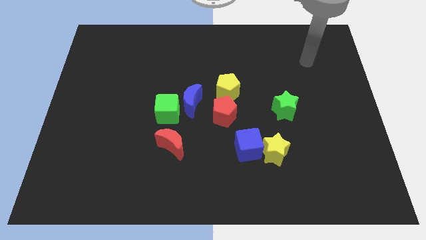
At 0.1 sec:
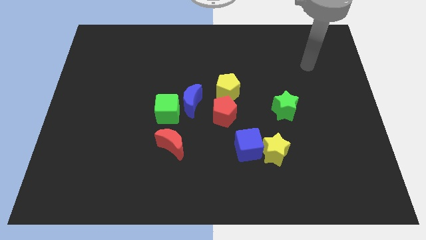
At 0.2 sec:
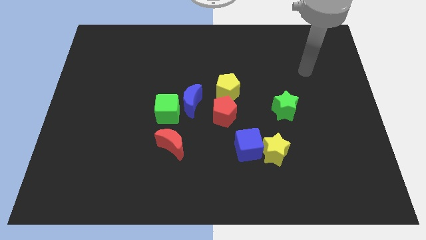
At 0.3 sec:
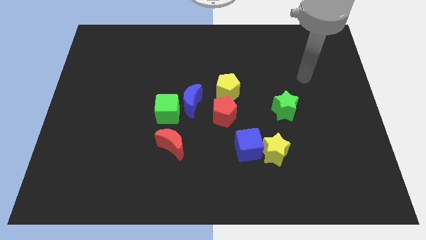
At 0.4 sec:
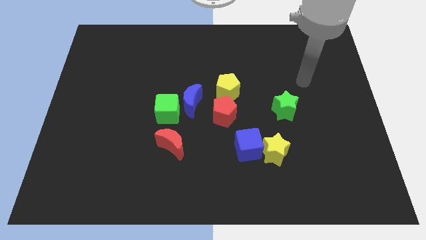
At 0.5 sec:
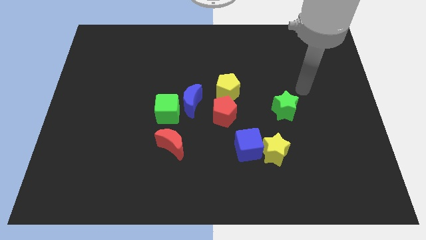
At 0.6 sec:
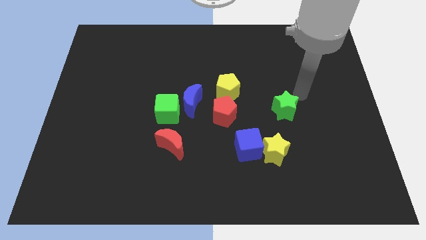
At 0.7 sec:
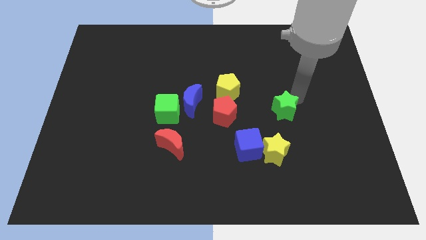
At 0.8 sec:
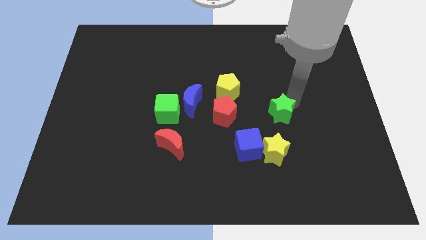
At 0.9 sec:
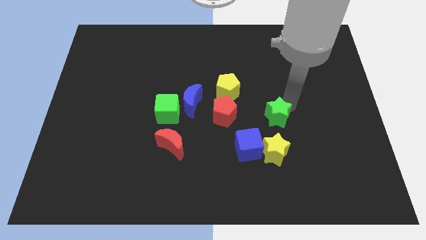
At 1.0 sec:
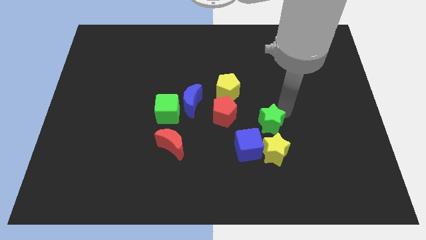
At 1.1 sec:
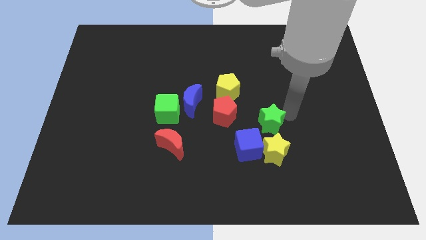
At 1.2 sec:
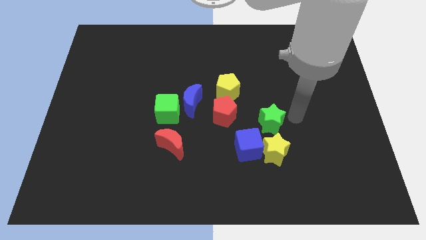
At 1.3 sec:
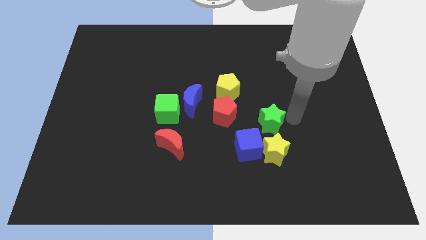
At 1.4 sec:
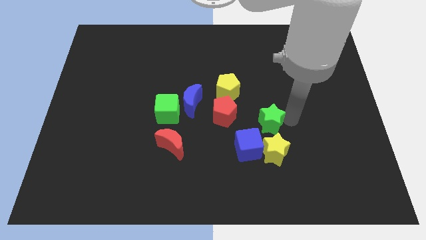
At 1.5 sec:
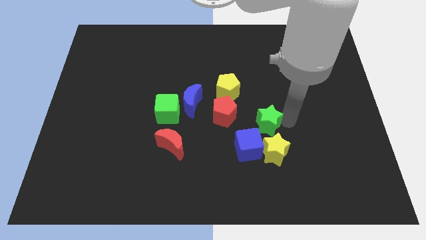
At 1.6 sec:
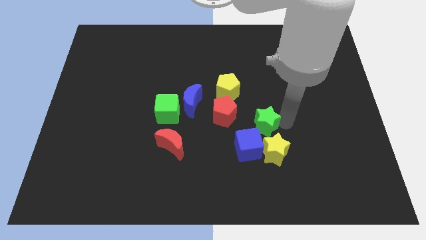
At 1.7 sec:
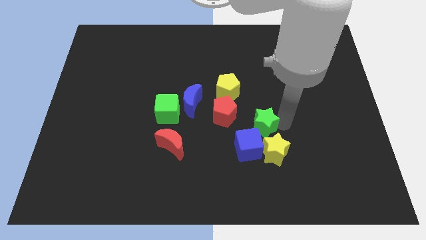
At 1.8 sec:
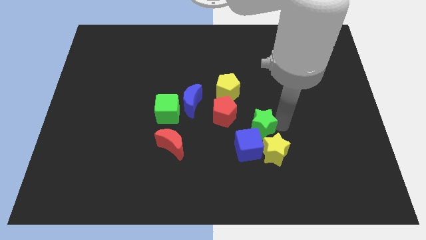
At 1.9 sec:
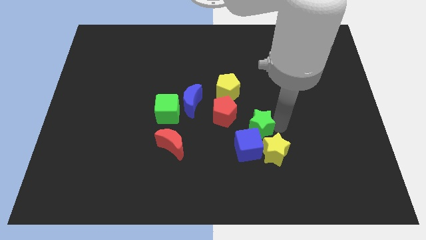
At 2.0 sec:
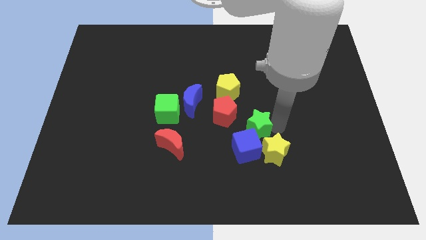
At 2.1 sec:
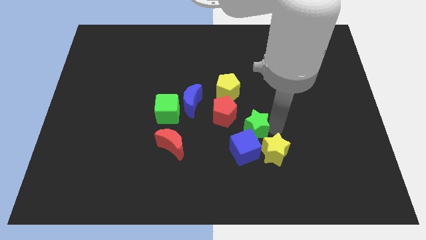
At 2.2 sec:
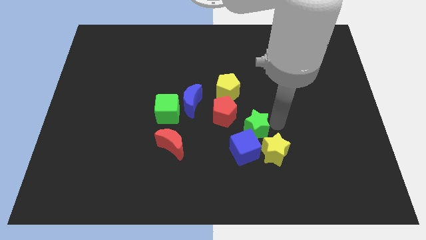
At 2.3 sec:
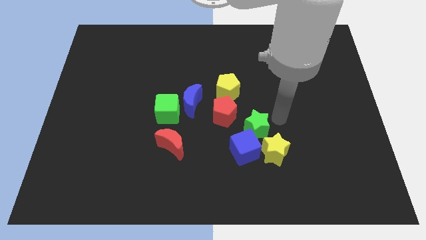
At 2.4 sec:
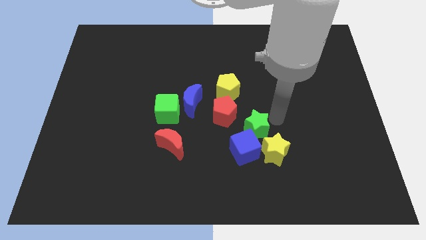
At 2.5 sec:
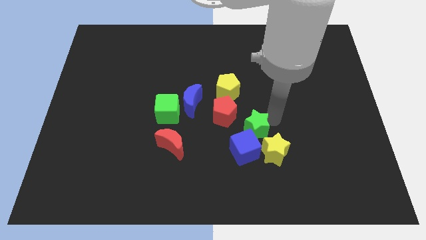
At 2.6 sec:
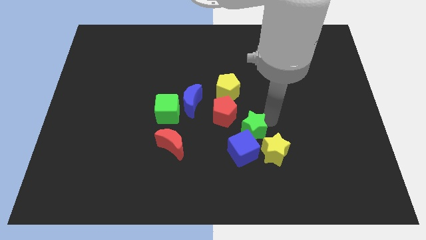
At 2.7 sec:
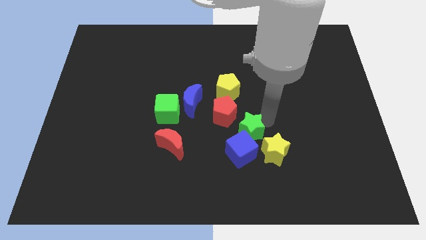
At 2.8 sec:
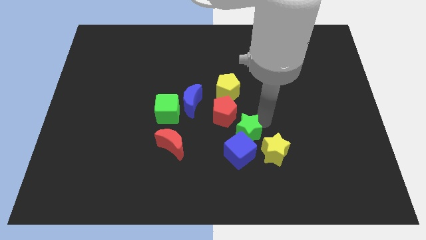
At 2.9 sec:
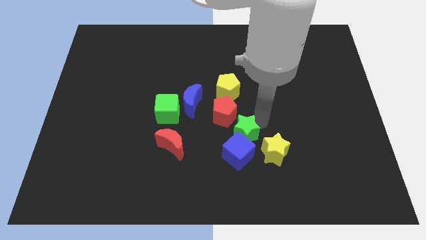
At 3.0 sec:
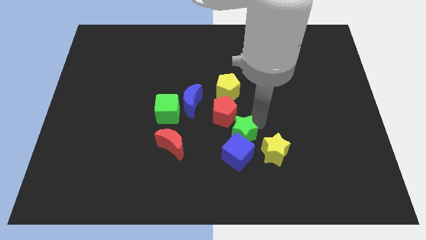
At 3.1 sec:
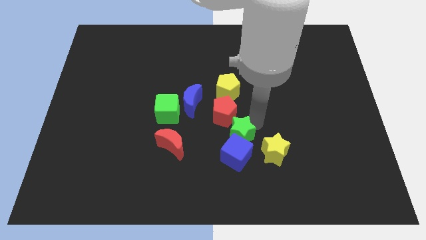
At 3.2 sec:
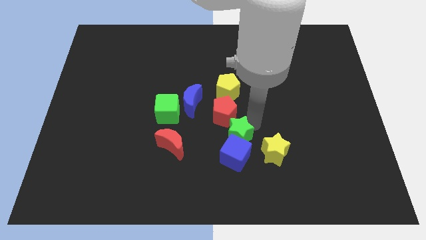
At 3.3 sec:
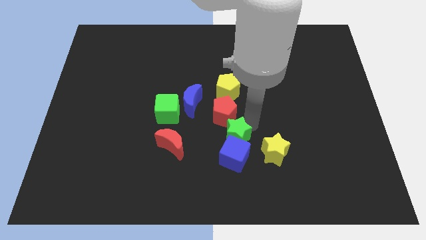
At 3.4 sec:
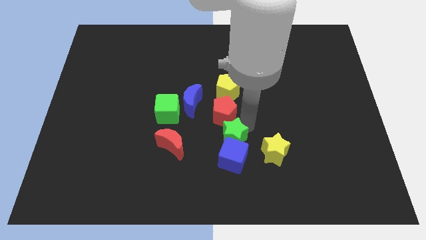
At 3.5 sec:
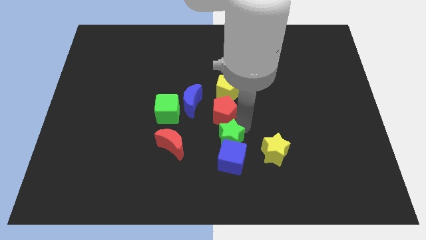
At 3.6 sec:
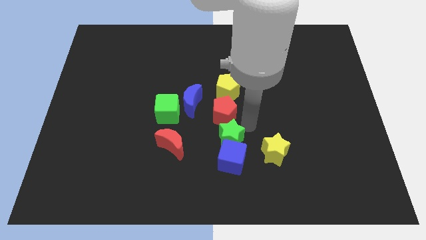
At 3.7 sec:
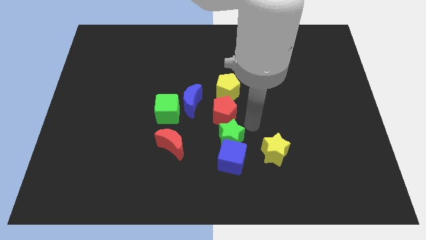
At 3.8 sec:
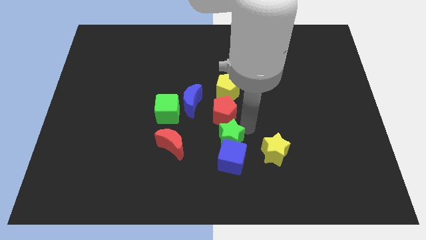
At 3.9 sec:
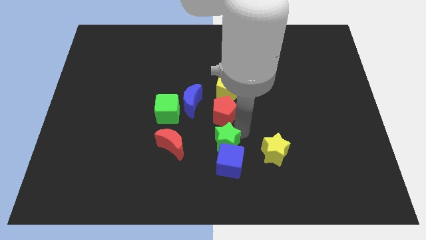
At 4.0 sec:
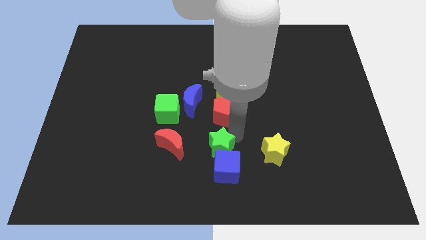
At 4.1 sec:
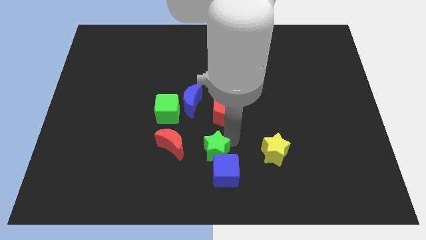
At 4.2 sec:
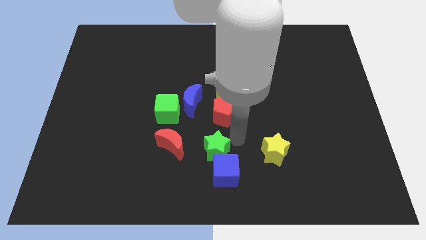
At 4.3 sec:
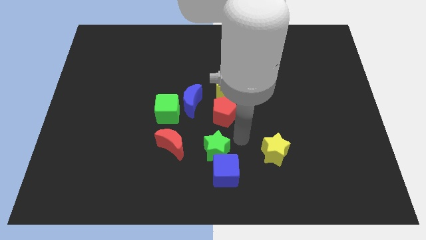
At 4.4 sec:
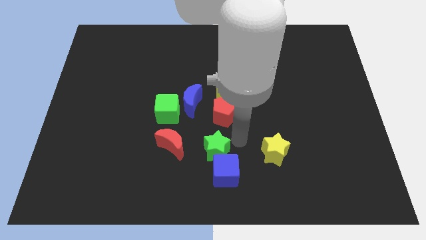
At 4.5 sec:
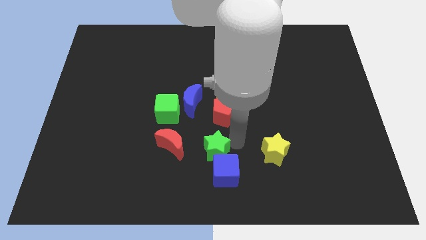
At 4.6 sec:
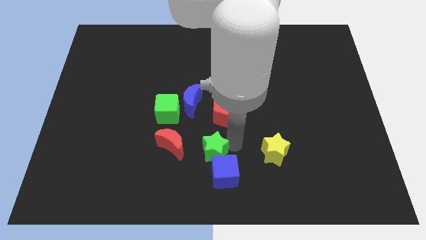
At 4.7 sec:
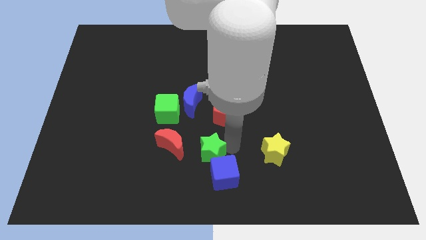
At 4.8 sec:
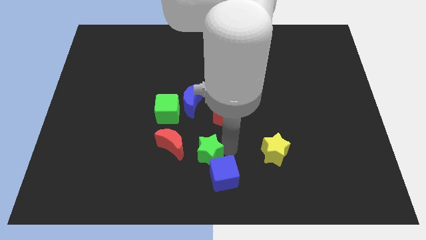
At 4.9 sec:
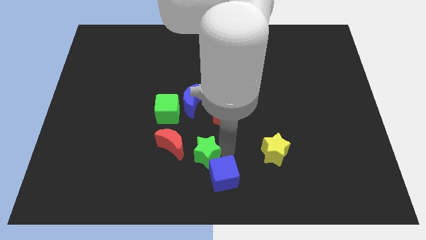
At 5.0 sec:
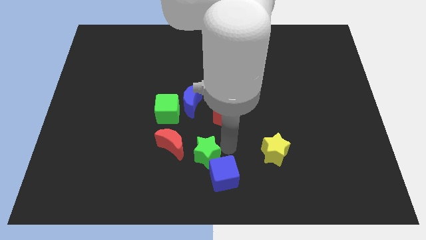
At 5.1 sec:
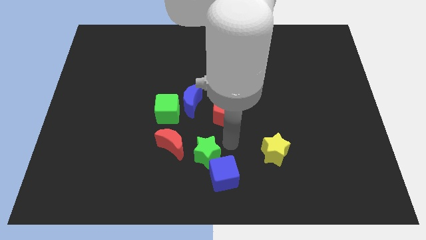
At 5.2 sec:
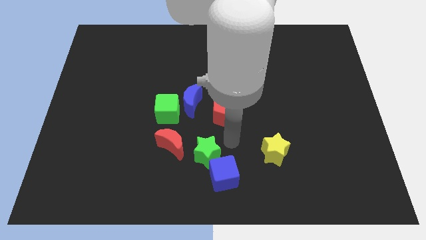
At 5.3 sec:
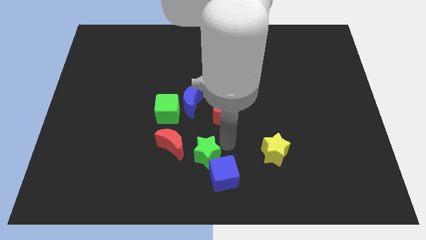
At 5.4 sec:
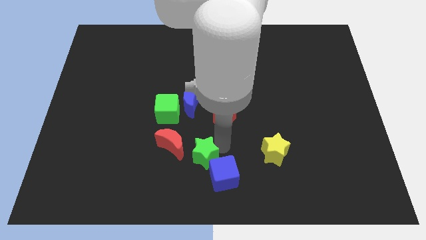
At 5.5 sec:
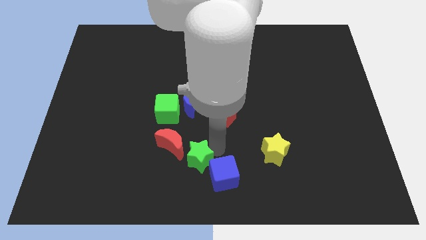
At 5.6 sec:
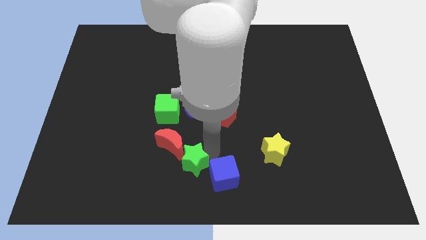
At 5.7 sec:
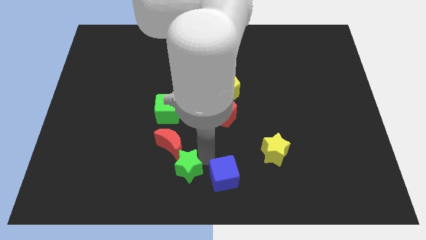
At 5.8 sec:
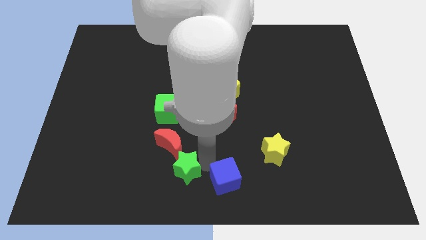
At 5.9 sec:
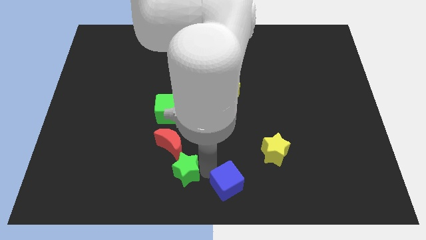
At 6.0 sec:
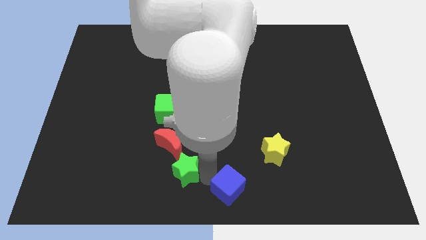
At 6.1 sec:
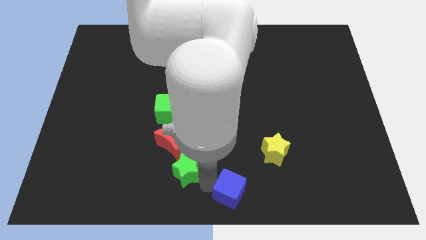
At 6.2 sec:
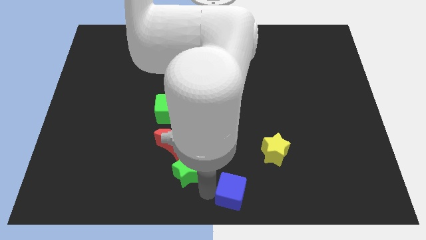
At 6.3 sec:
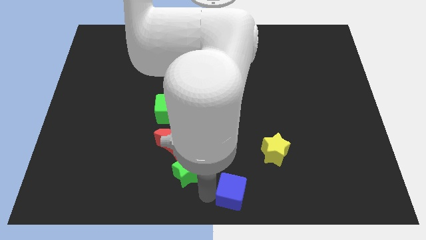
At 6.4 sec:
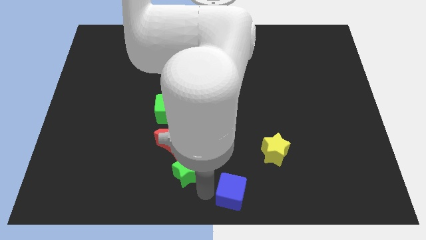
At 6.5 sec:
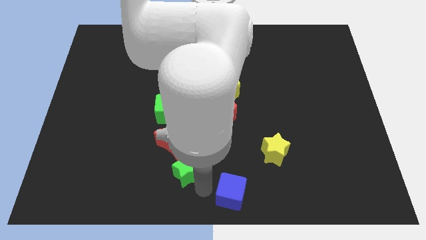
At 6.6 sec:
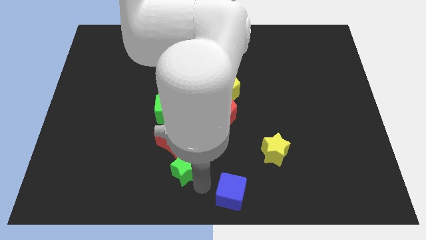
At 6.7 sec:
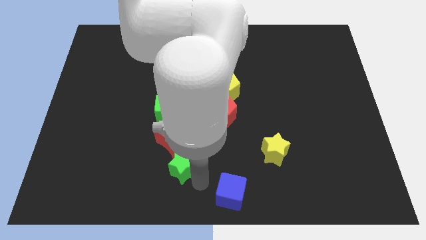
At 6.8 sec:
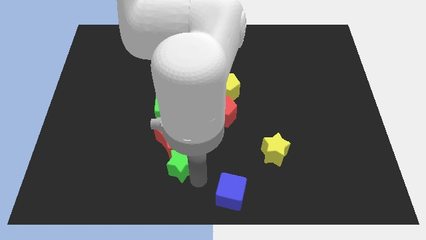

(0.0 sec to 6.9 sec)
put the green star below the green cube
